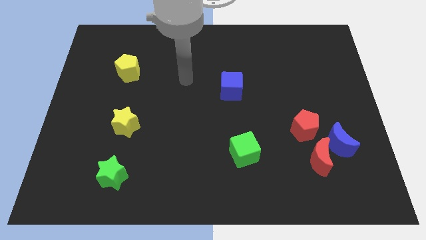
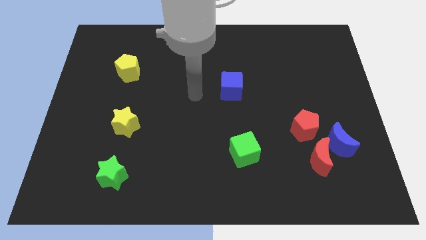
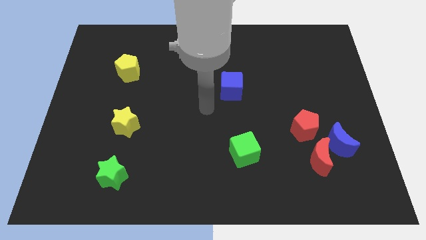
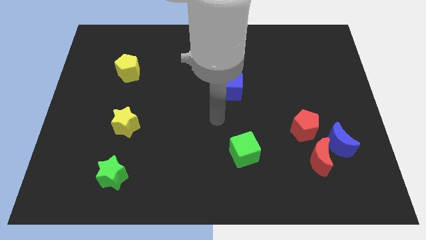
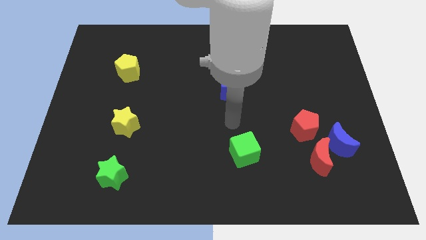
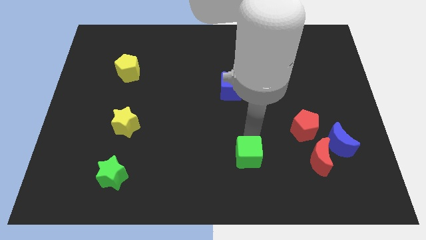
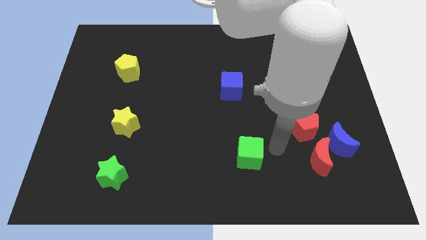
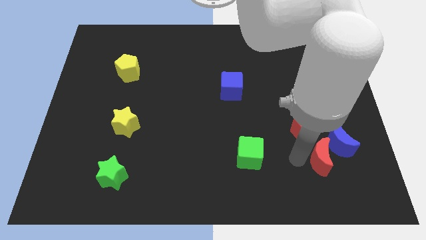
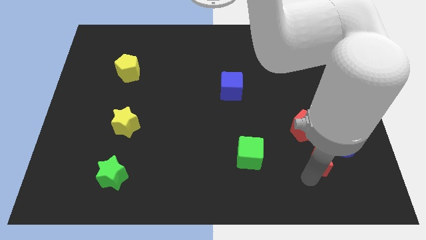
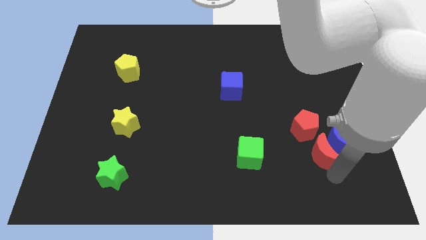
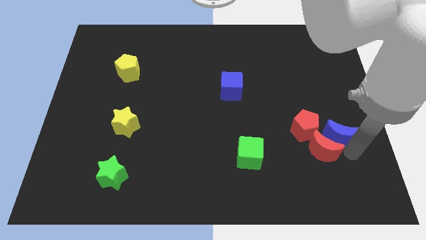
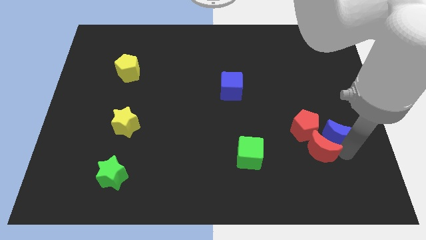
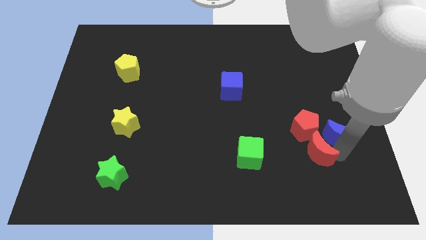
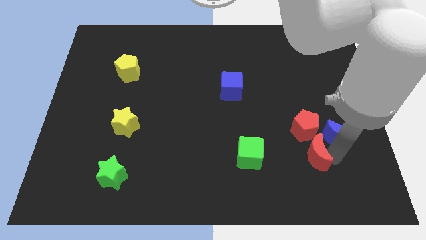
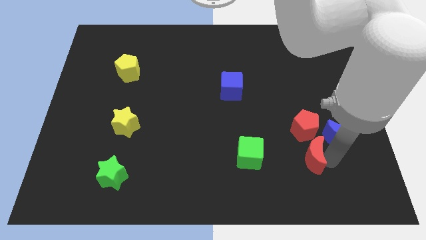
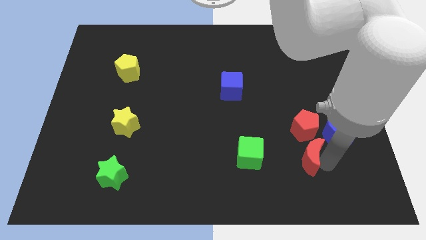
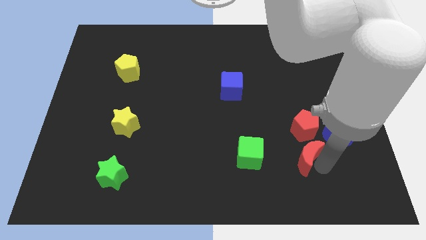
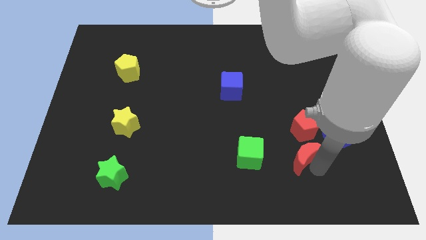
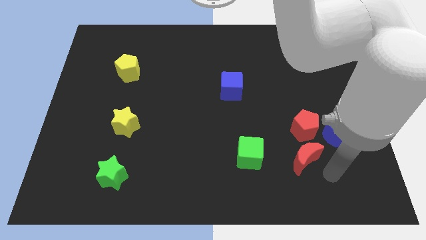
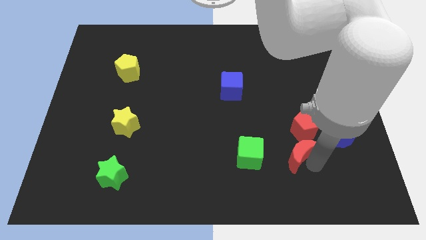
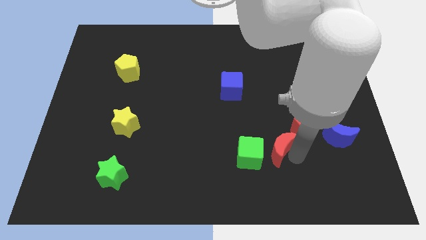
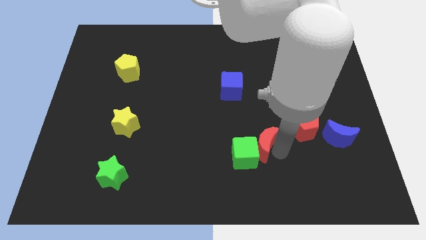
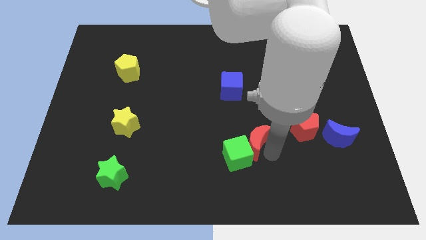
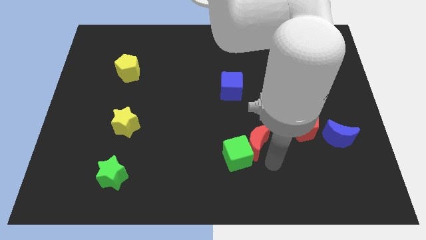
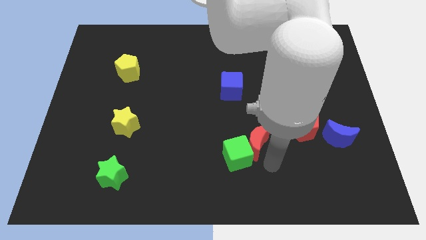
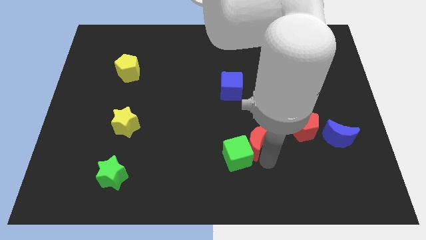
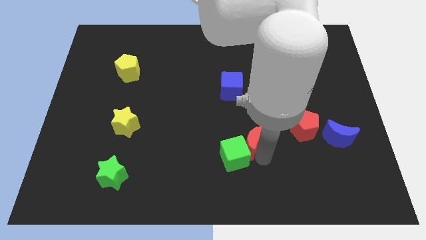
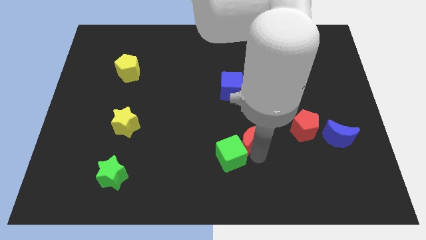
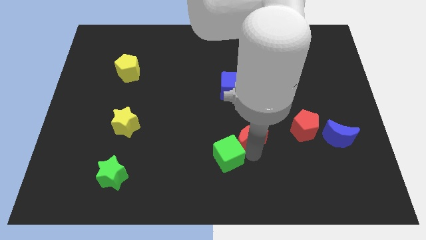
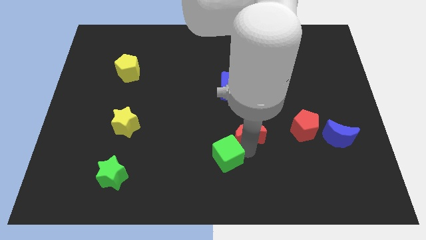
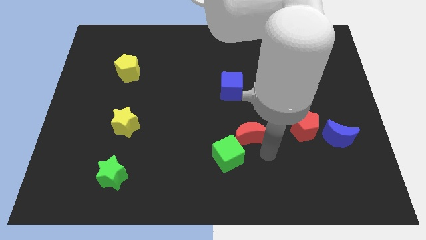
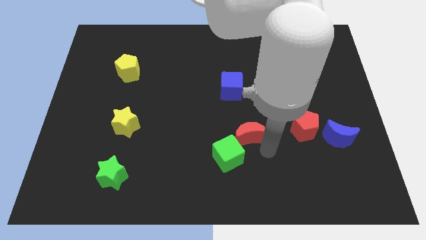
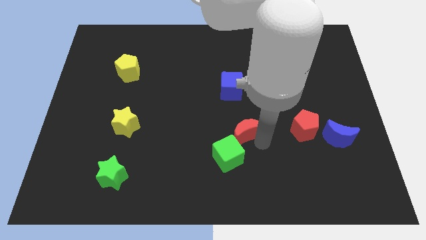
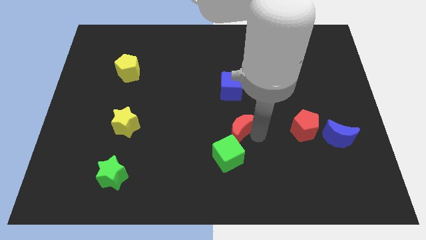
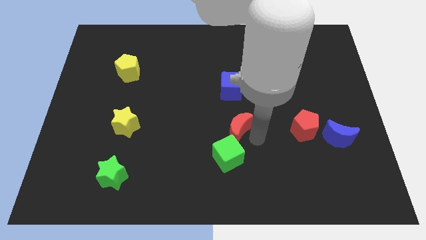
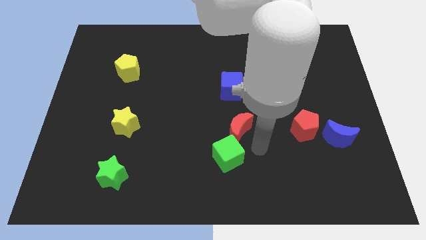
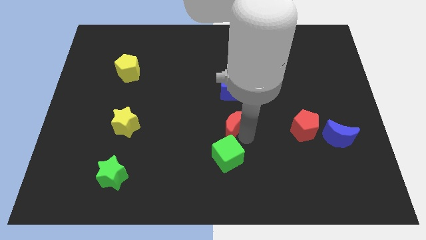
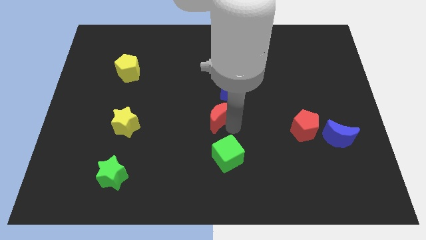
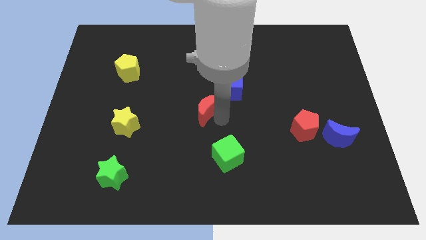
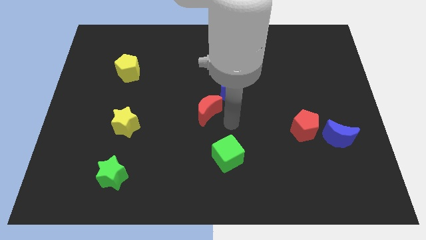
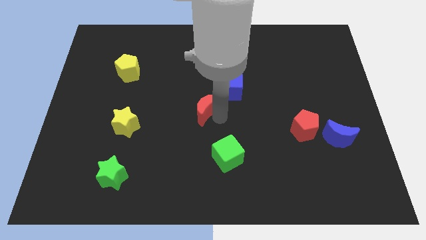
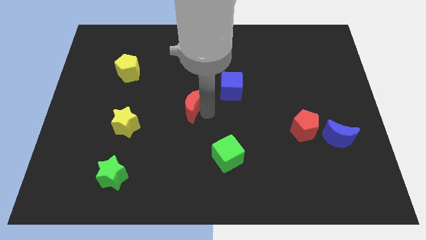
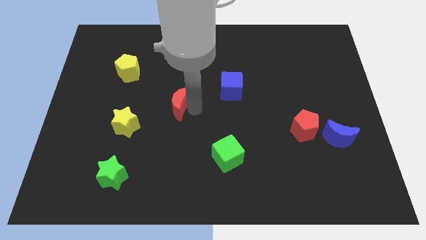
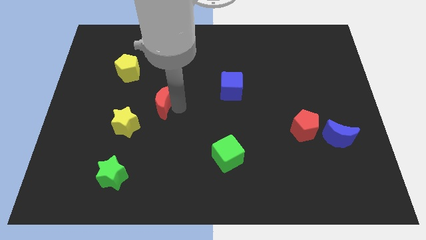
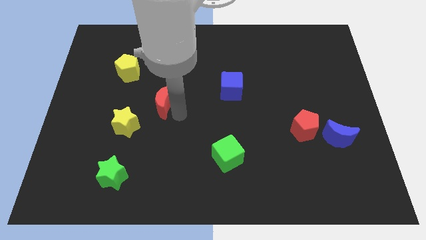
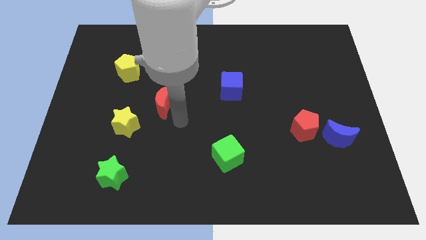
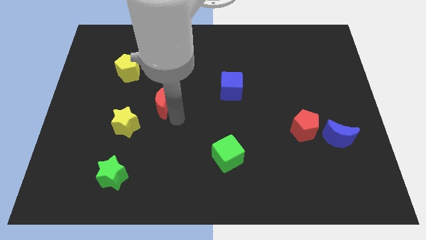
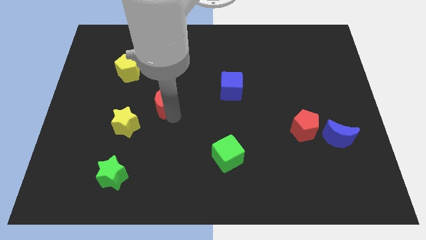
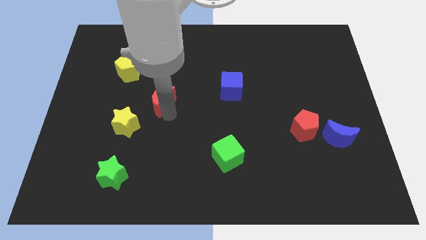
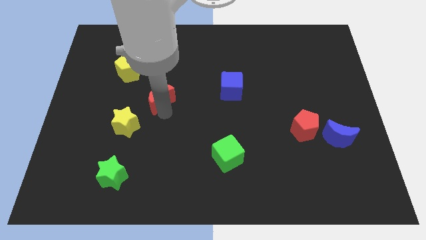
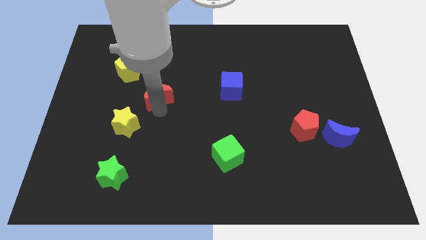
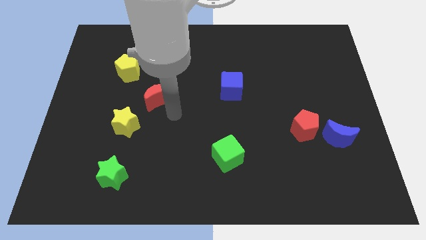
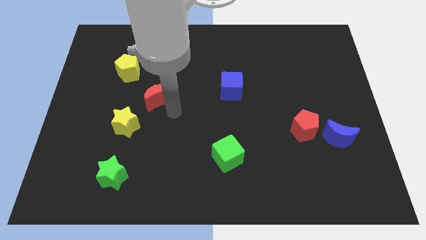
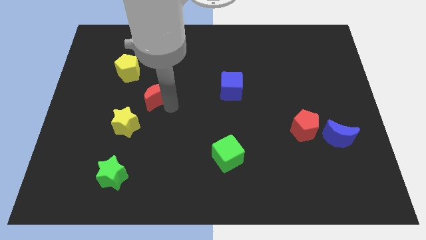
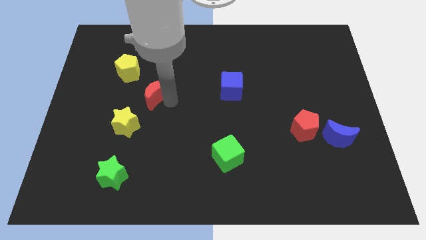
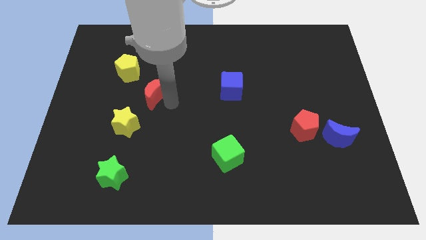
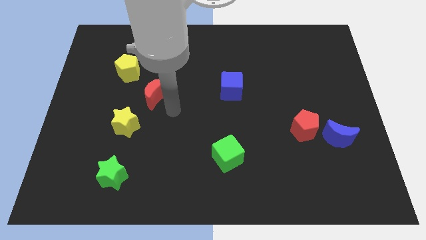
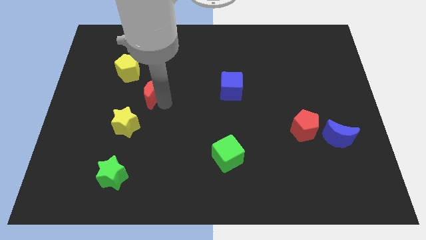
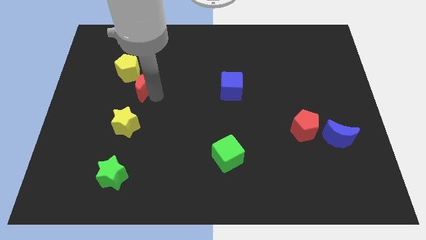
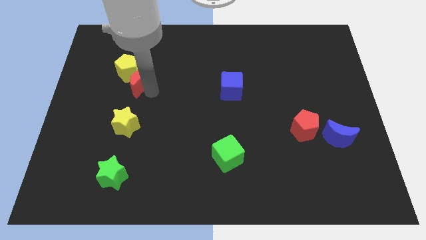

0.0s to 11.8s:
put the red moon towards the yellow pentagon

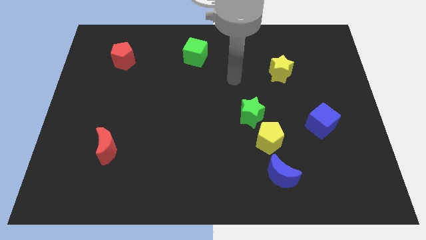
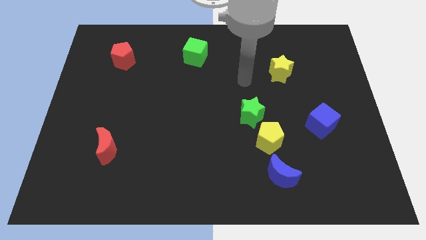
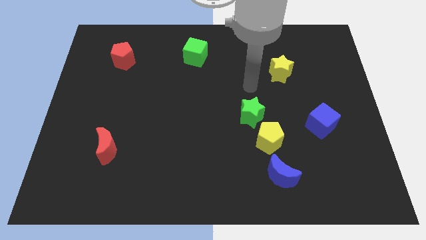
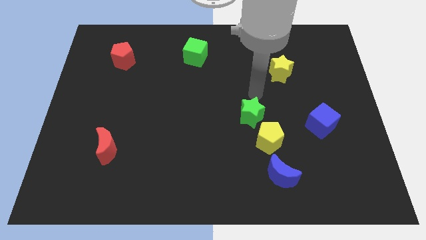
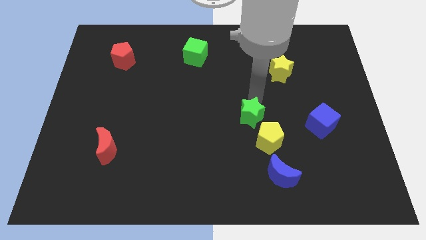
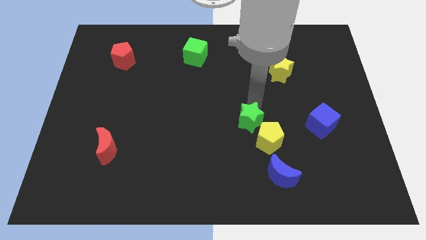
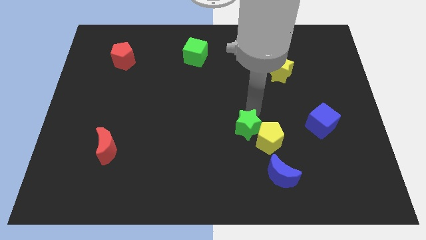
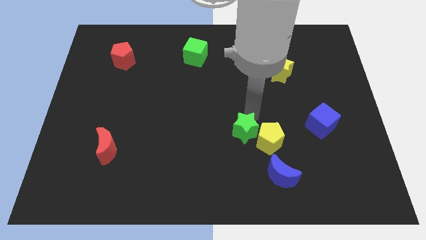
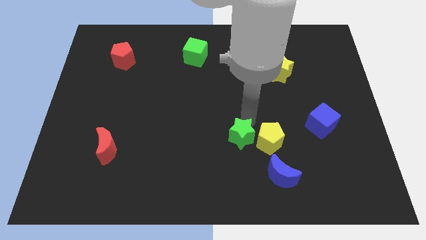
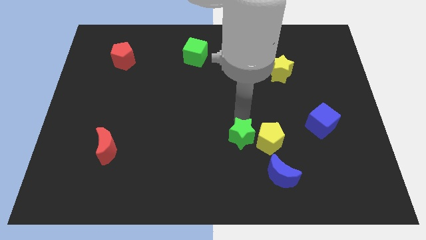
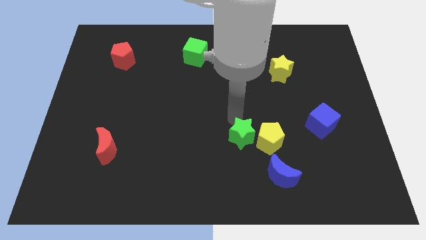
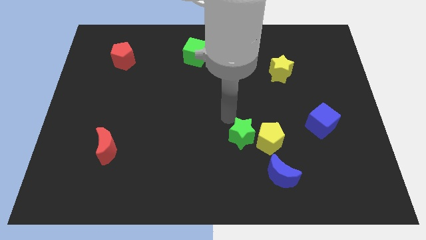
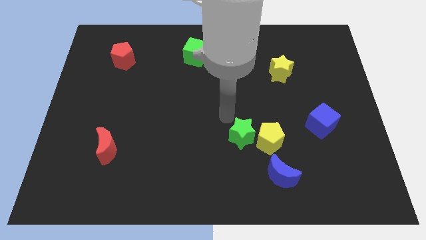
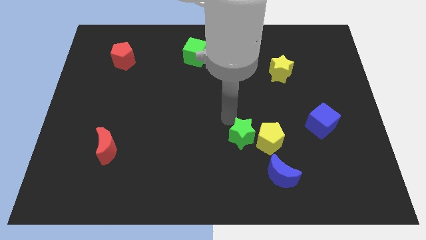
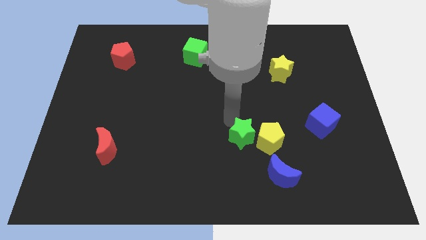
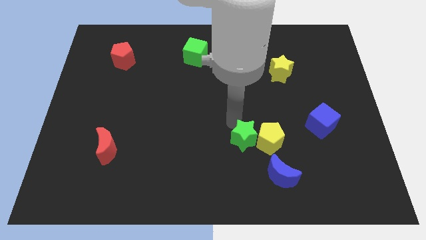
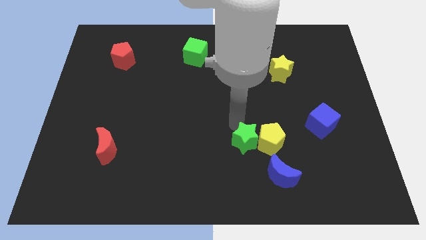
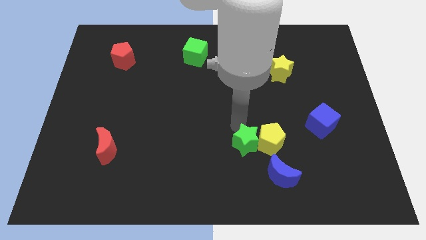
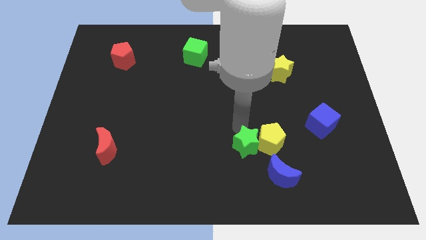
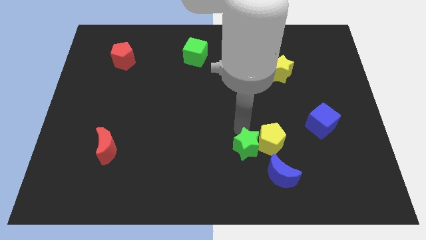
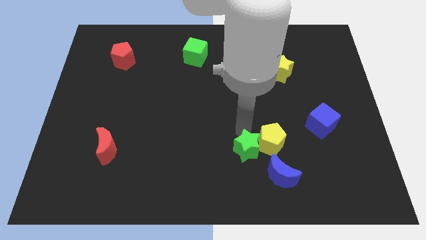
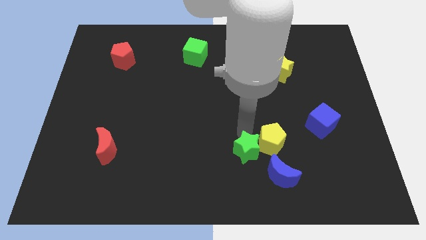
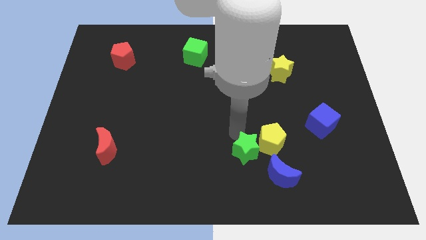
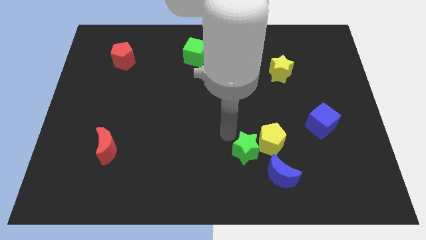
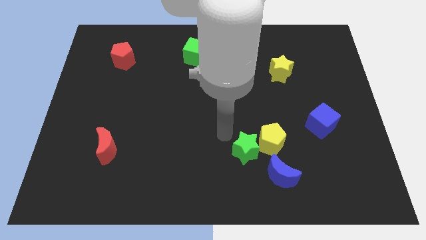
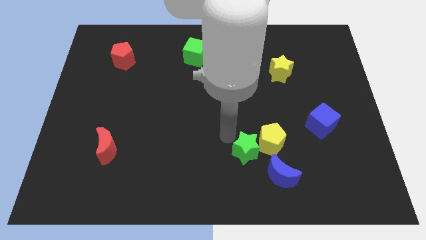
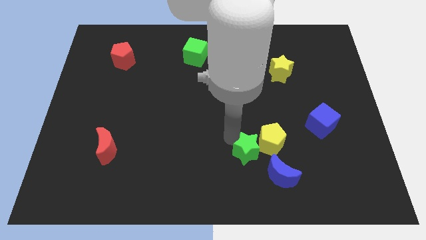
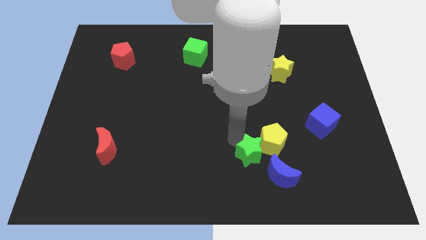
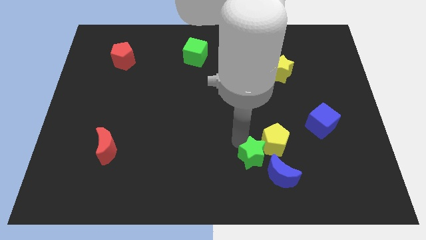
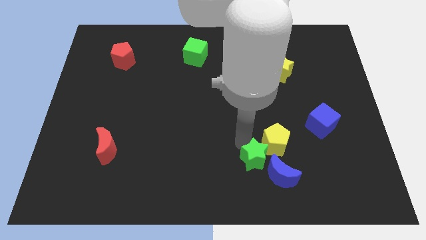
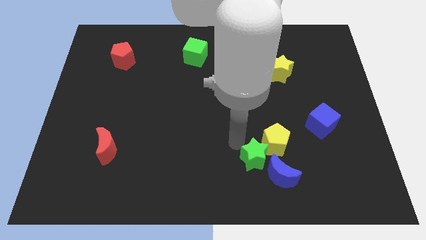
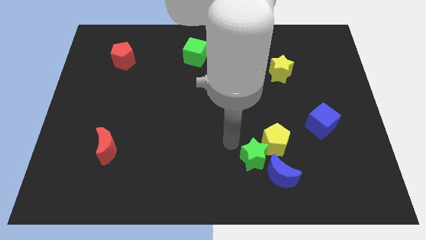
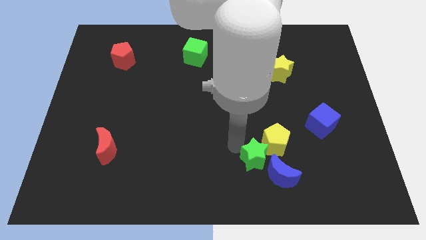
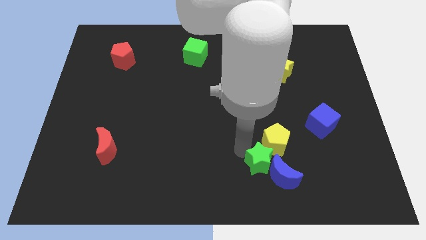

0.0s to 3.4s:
put the green star to the blue moon
